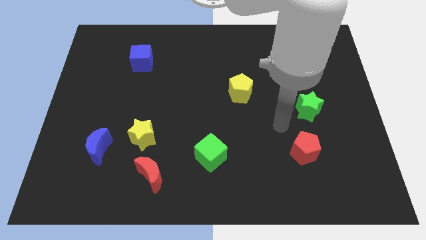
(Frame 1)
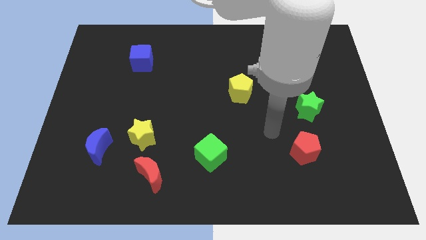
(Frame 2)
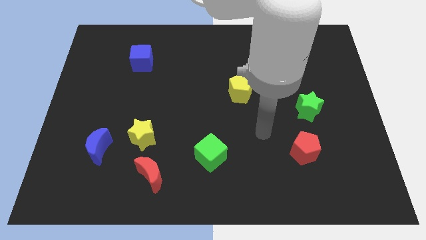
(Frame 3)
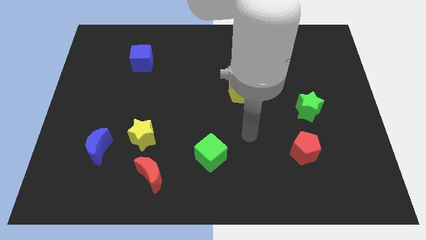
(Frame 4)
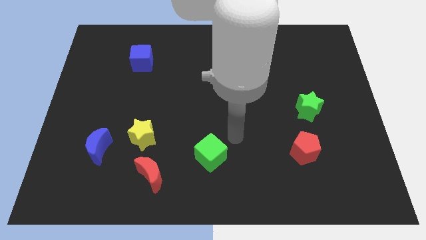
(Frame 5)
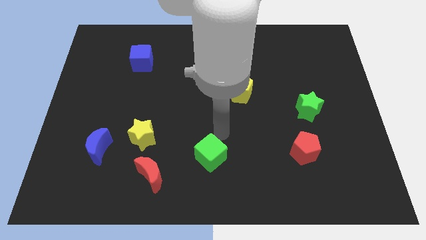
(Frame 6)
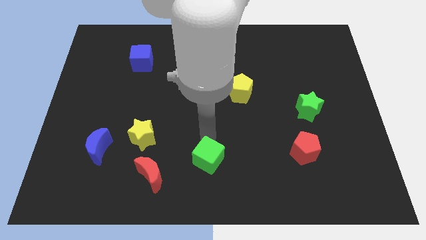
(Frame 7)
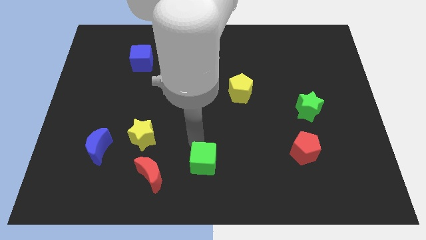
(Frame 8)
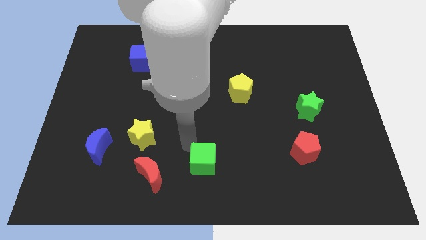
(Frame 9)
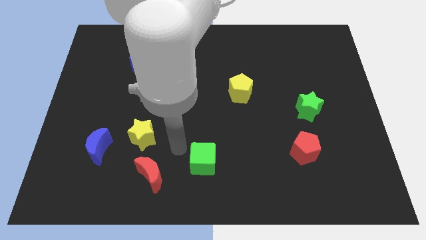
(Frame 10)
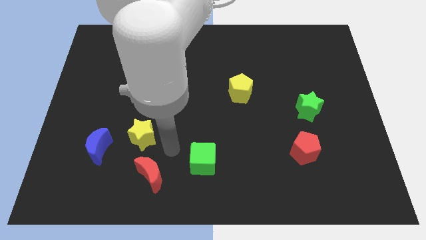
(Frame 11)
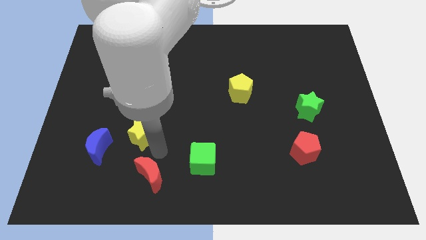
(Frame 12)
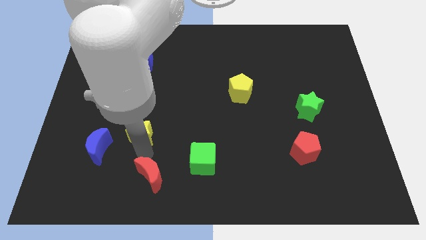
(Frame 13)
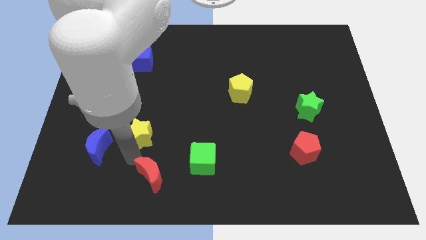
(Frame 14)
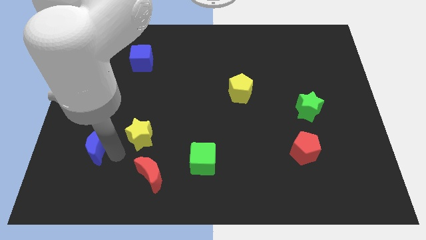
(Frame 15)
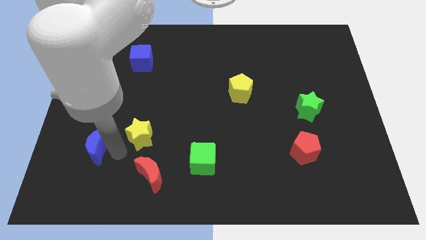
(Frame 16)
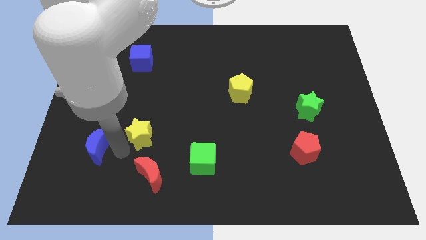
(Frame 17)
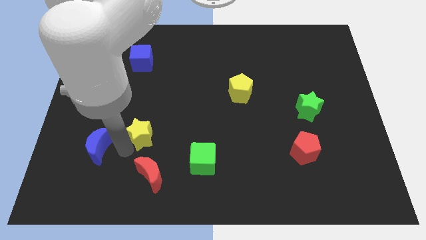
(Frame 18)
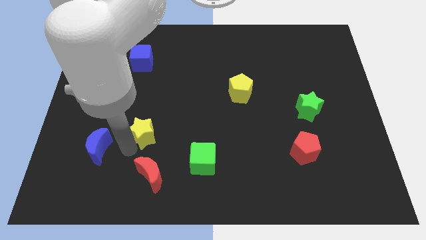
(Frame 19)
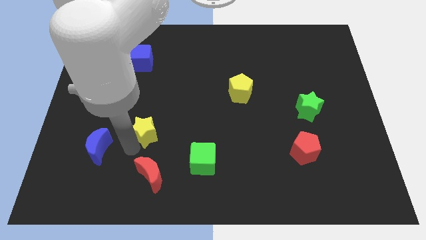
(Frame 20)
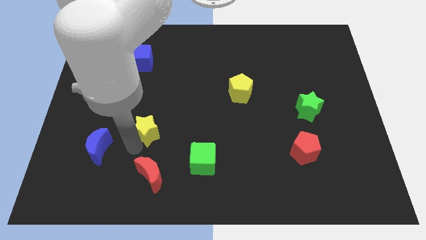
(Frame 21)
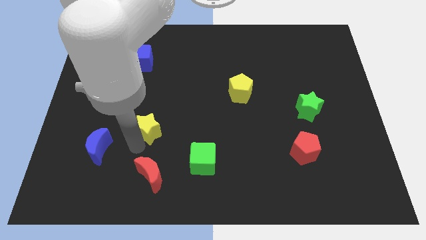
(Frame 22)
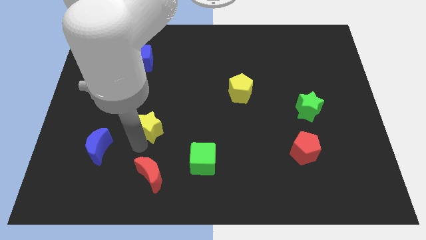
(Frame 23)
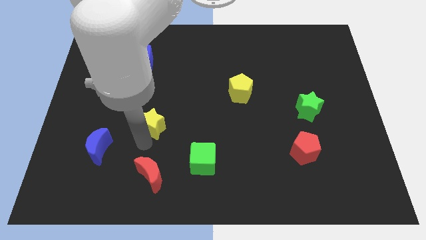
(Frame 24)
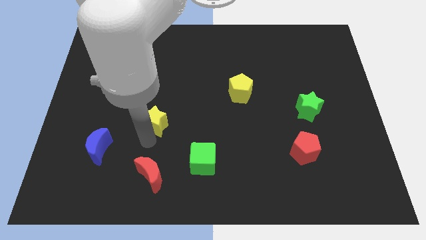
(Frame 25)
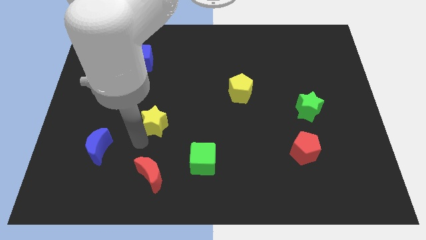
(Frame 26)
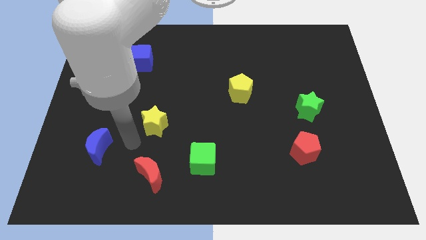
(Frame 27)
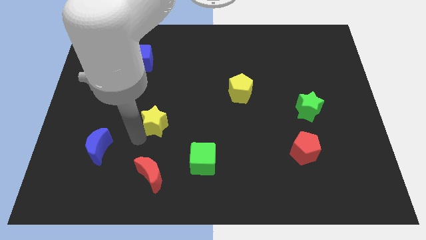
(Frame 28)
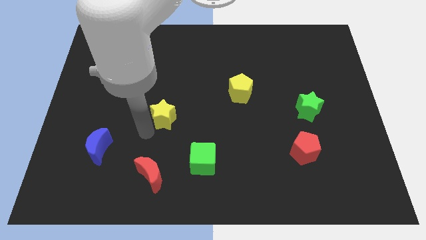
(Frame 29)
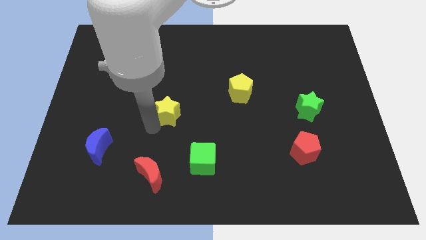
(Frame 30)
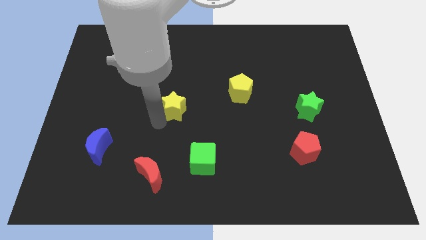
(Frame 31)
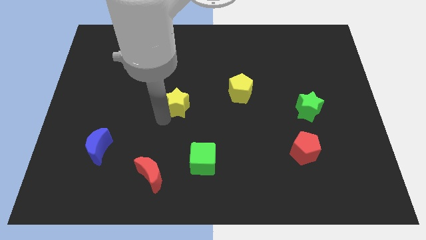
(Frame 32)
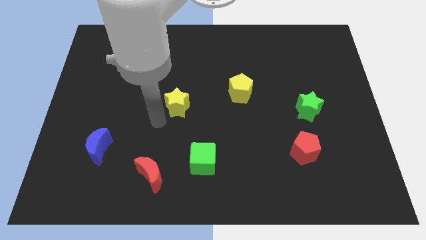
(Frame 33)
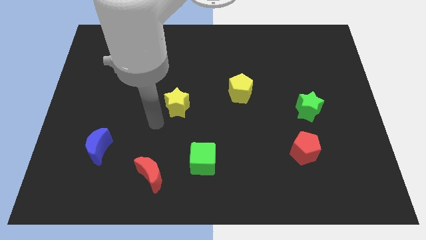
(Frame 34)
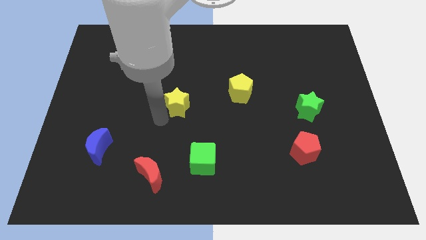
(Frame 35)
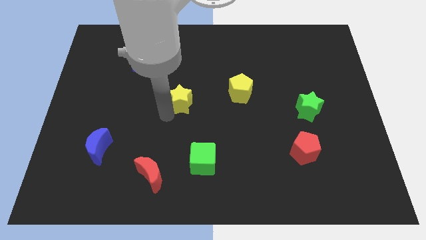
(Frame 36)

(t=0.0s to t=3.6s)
push the yellow star left of the yellow pentagon

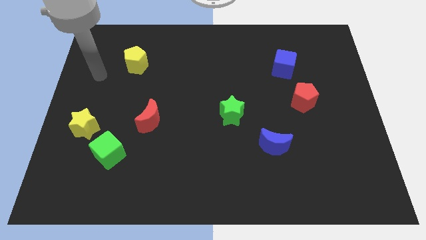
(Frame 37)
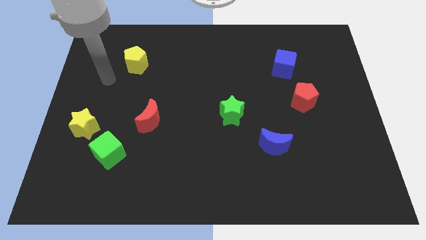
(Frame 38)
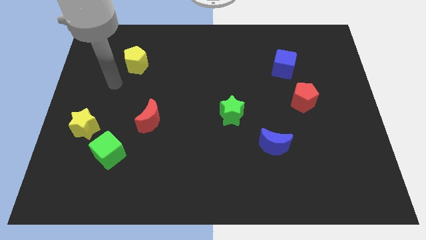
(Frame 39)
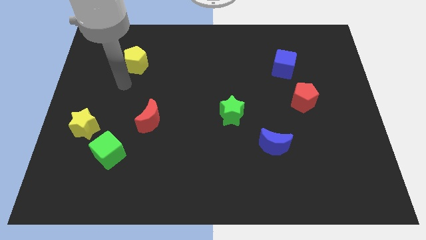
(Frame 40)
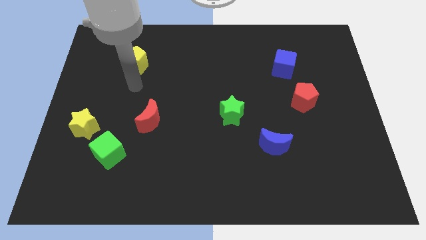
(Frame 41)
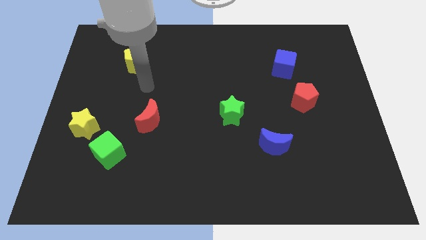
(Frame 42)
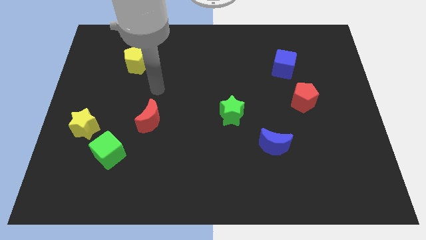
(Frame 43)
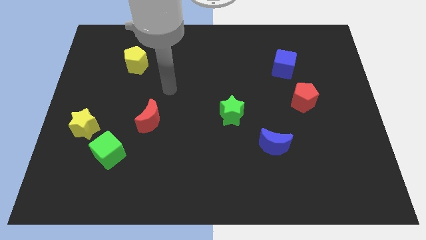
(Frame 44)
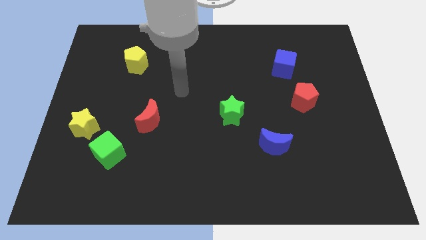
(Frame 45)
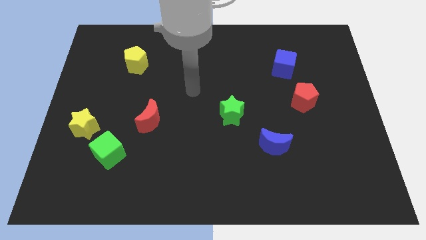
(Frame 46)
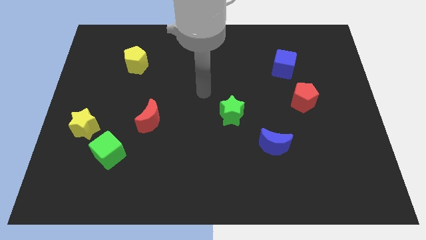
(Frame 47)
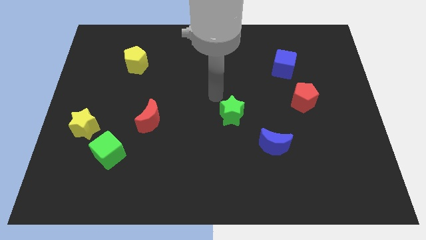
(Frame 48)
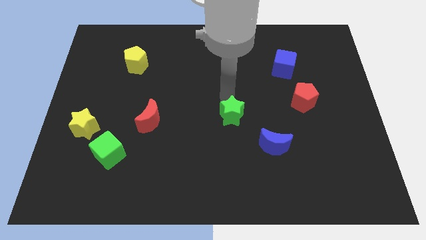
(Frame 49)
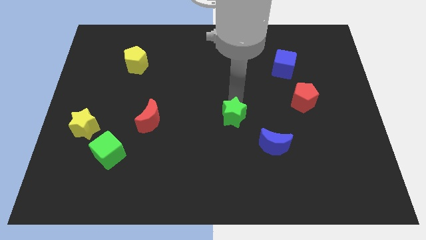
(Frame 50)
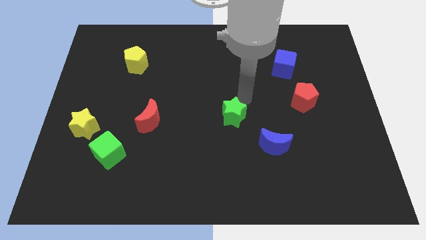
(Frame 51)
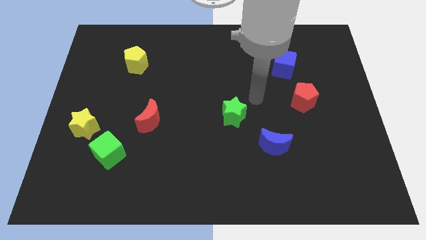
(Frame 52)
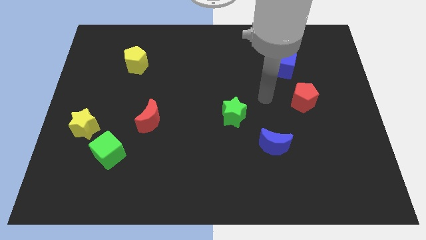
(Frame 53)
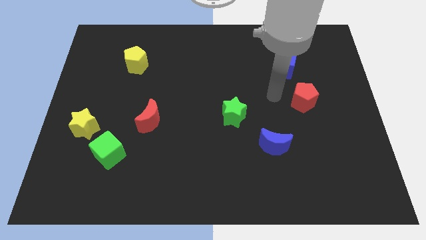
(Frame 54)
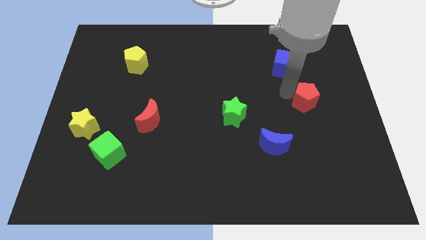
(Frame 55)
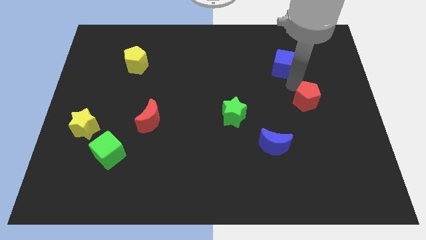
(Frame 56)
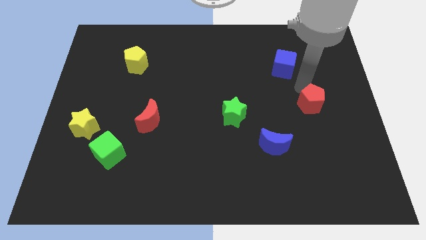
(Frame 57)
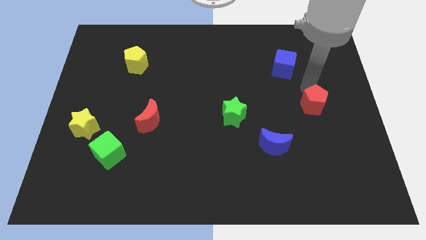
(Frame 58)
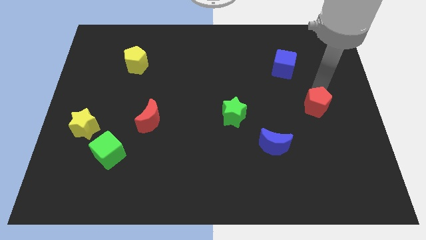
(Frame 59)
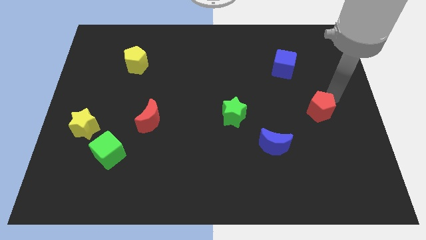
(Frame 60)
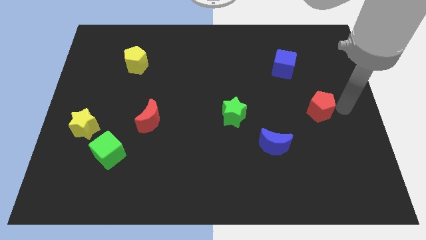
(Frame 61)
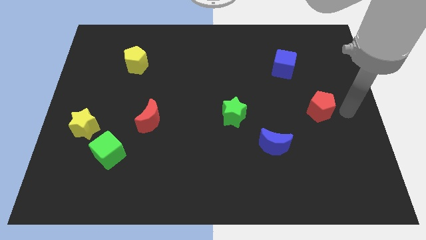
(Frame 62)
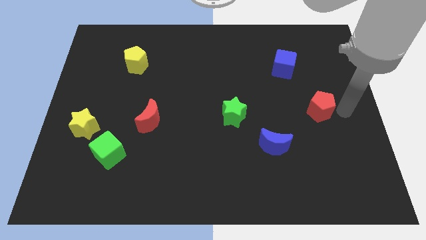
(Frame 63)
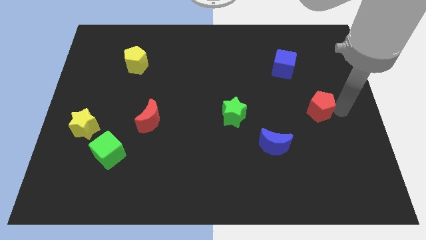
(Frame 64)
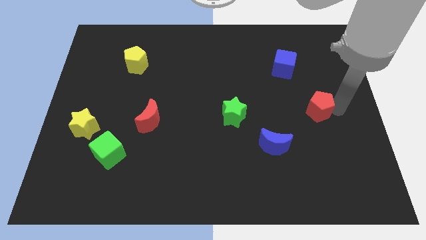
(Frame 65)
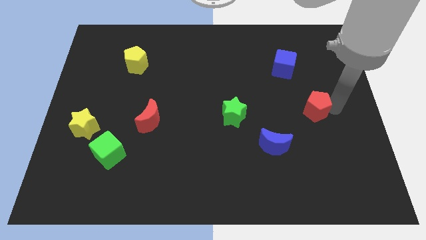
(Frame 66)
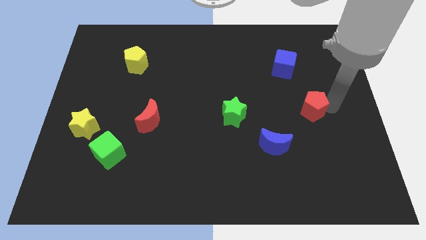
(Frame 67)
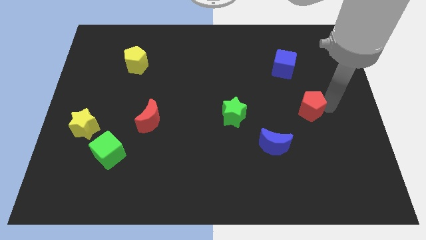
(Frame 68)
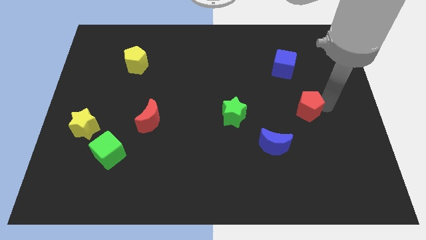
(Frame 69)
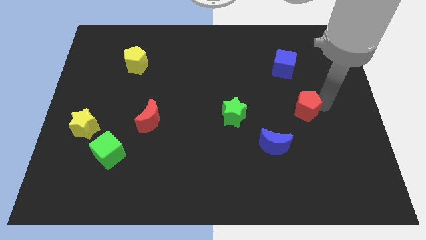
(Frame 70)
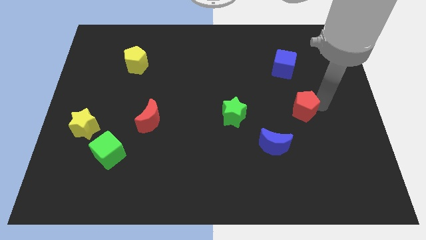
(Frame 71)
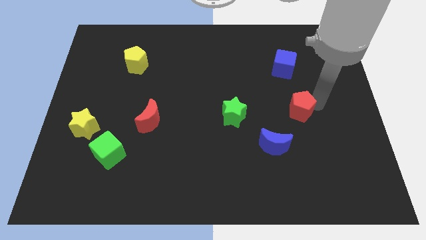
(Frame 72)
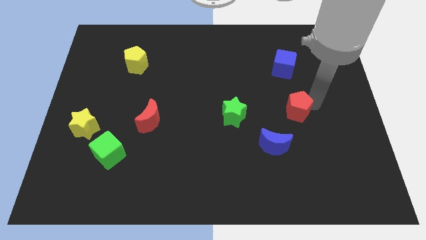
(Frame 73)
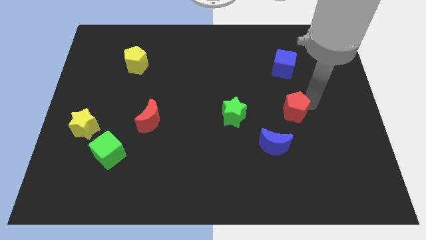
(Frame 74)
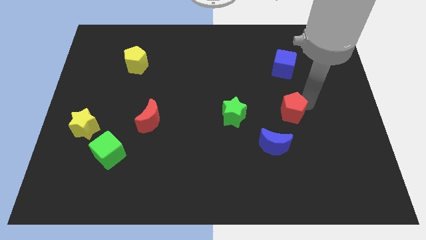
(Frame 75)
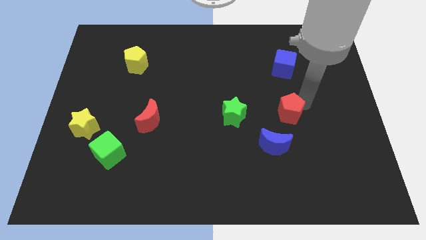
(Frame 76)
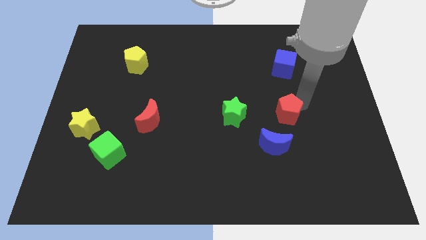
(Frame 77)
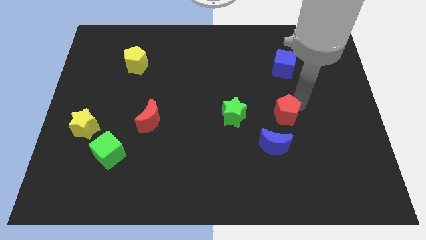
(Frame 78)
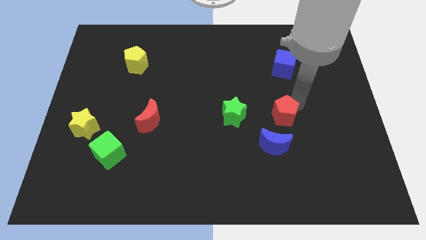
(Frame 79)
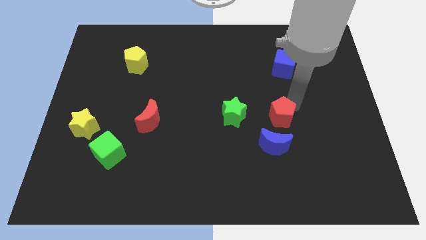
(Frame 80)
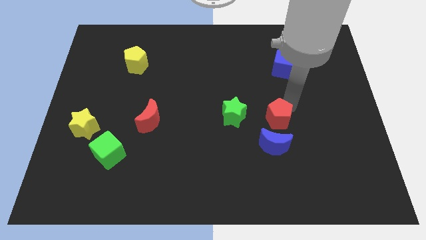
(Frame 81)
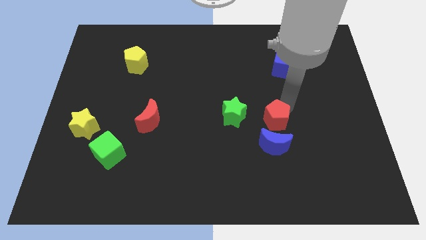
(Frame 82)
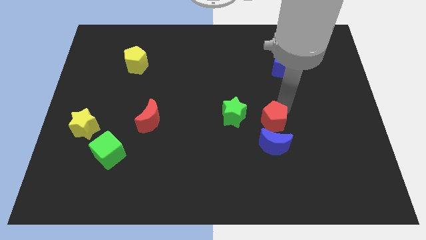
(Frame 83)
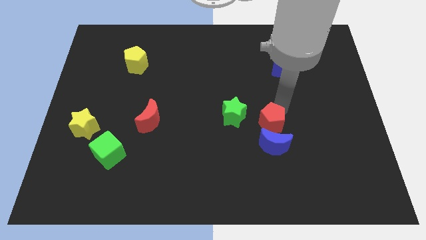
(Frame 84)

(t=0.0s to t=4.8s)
slide the red pentagon to the bottom right of the green star
